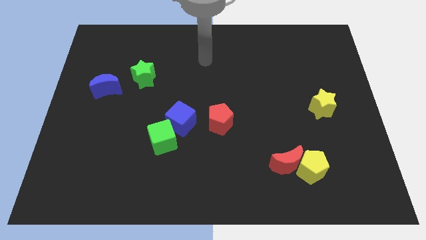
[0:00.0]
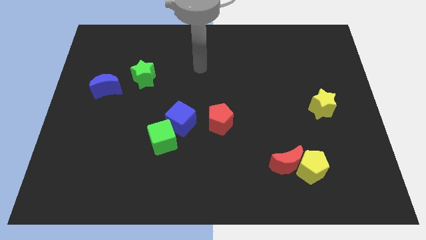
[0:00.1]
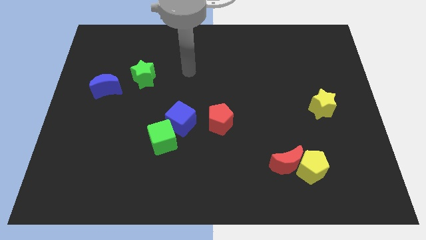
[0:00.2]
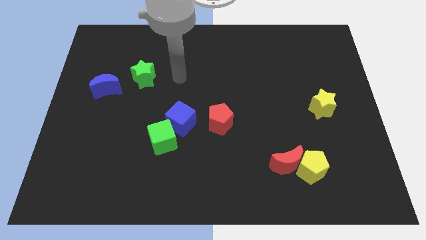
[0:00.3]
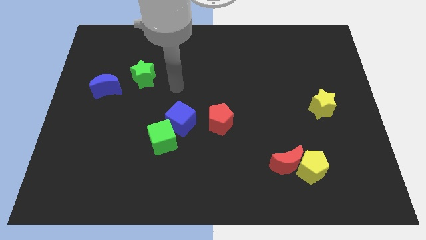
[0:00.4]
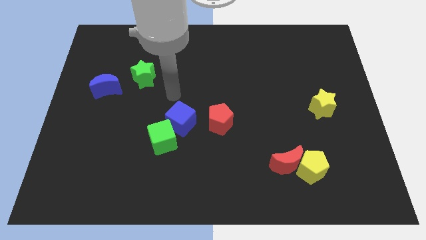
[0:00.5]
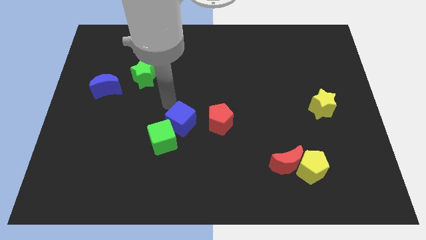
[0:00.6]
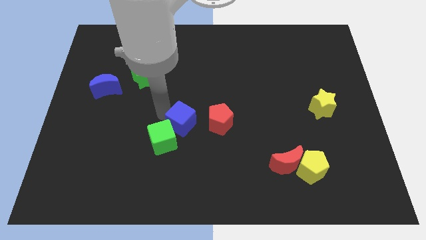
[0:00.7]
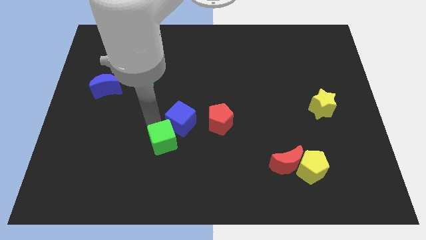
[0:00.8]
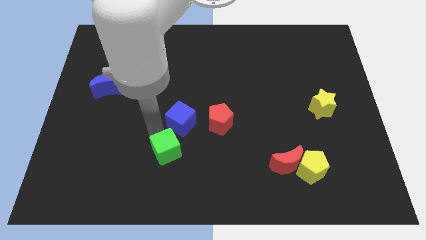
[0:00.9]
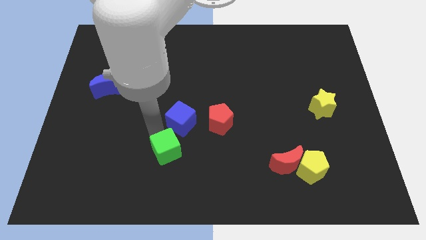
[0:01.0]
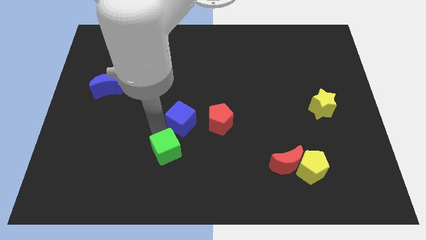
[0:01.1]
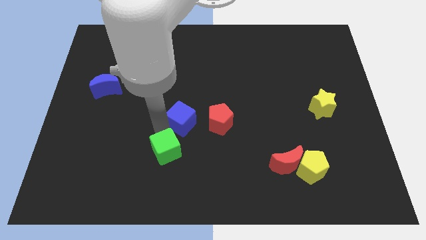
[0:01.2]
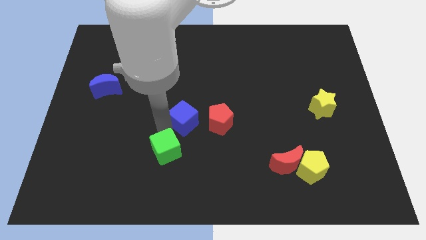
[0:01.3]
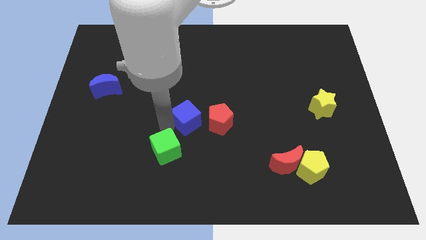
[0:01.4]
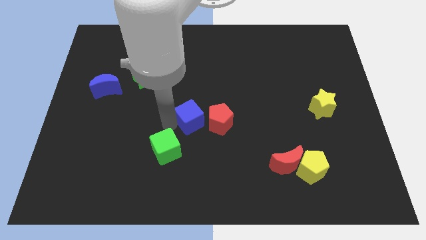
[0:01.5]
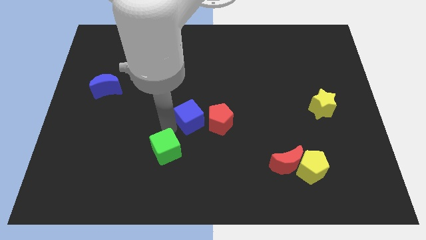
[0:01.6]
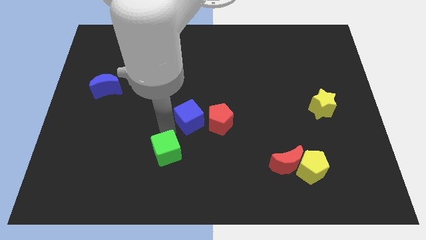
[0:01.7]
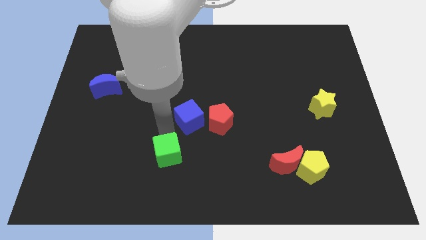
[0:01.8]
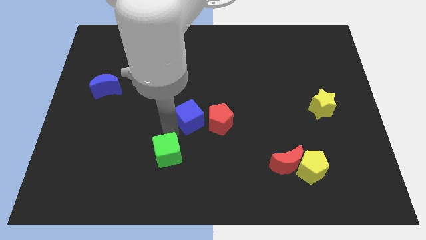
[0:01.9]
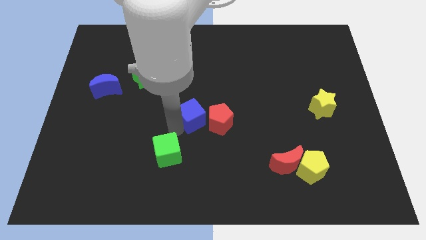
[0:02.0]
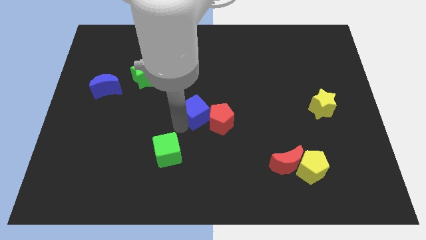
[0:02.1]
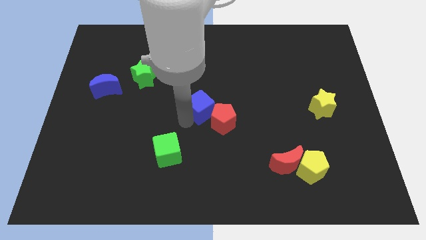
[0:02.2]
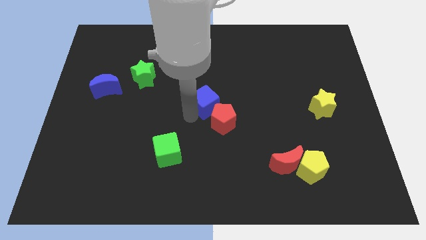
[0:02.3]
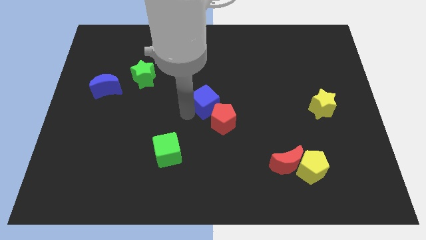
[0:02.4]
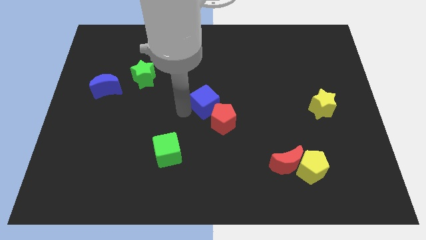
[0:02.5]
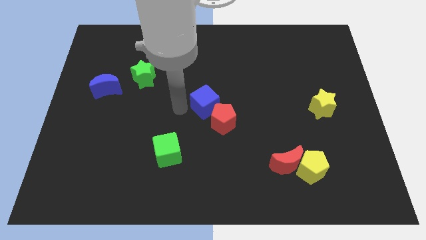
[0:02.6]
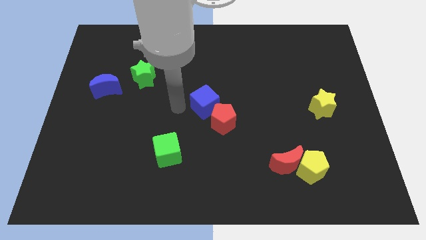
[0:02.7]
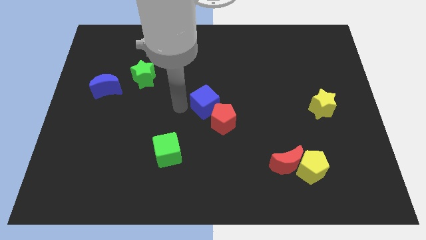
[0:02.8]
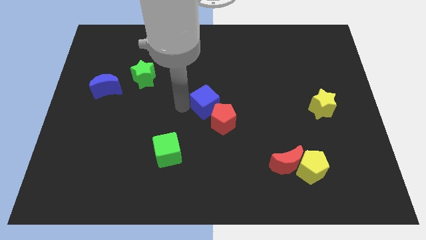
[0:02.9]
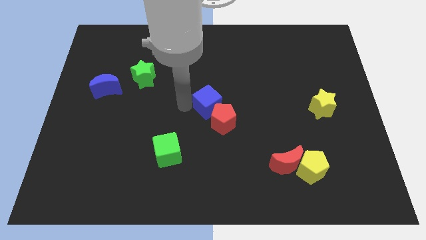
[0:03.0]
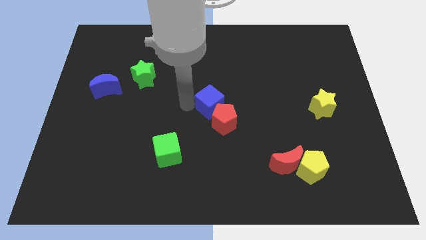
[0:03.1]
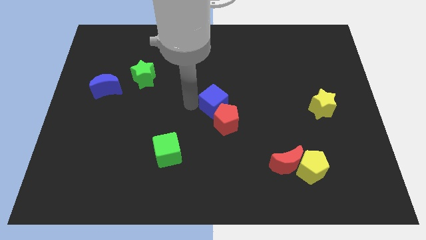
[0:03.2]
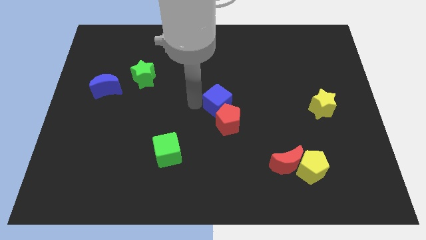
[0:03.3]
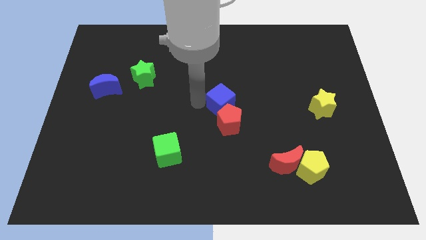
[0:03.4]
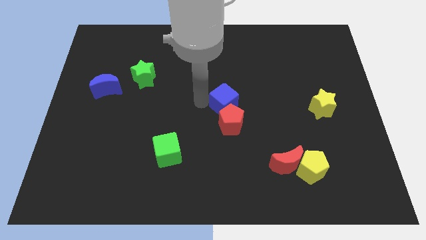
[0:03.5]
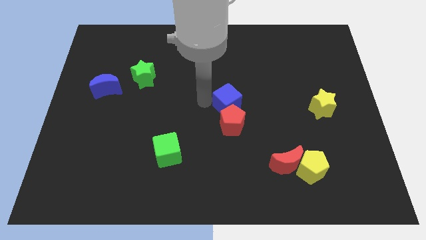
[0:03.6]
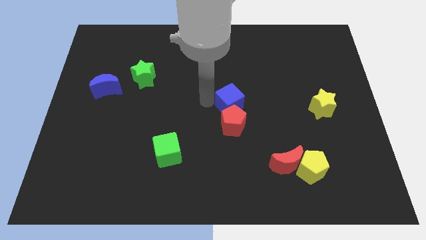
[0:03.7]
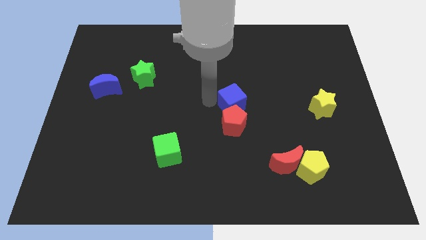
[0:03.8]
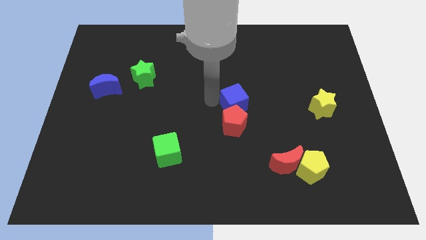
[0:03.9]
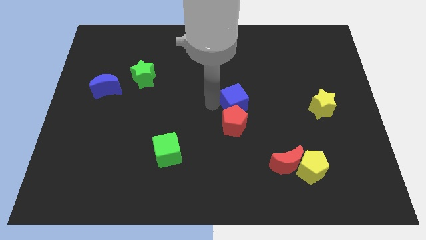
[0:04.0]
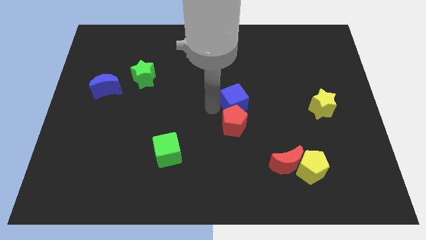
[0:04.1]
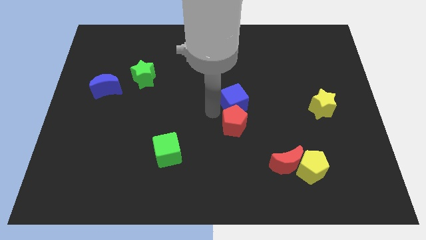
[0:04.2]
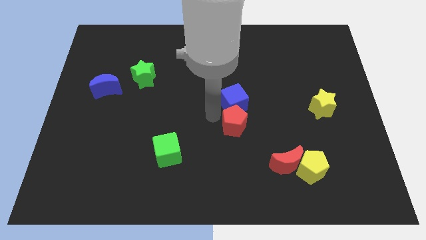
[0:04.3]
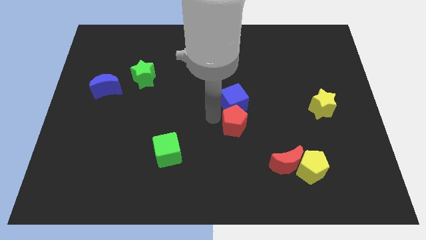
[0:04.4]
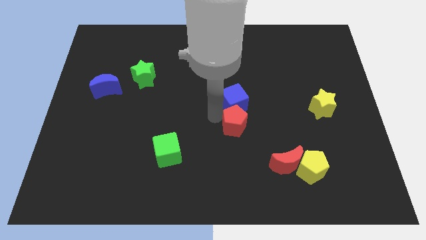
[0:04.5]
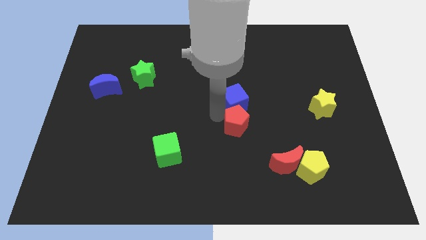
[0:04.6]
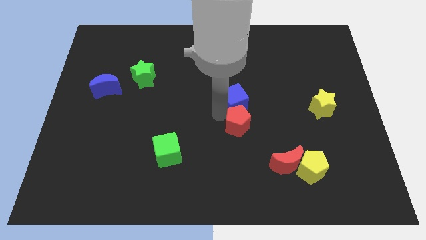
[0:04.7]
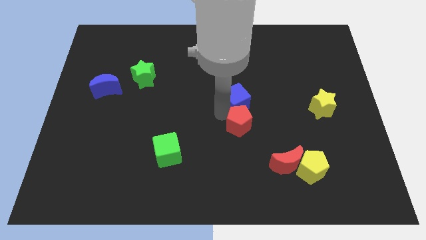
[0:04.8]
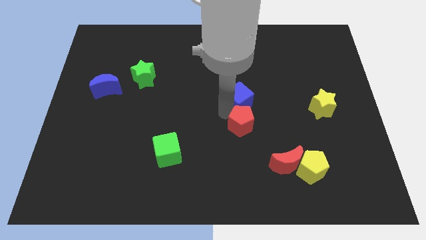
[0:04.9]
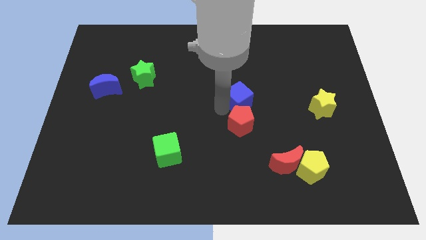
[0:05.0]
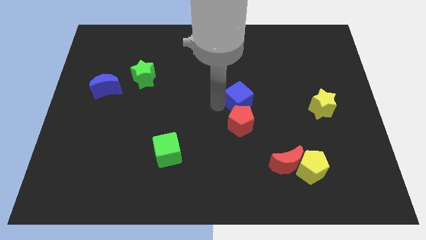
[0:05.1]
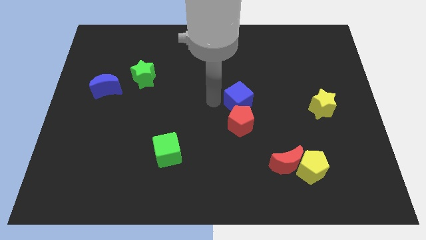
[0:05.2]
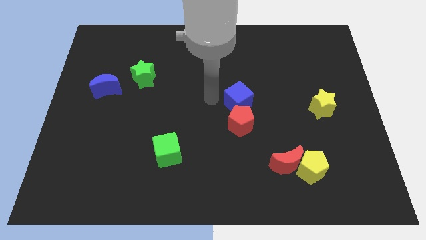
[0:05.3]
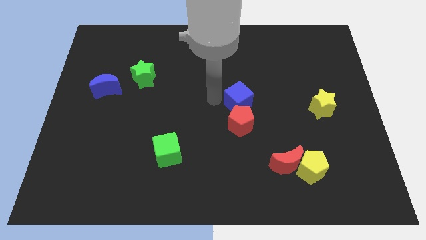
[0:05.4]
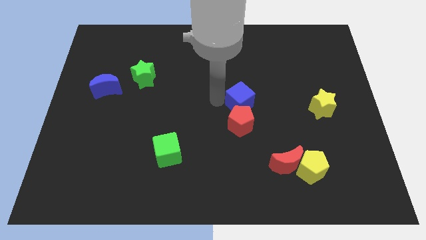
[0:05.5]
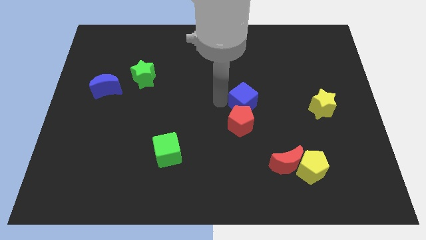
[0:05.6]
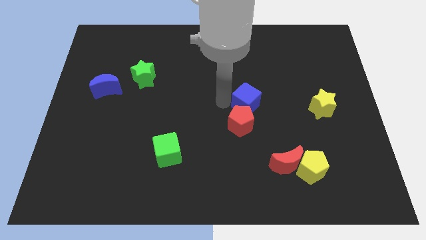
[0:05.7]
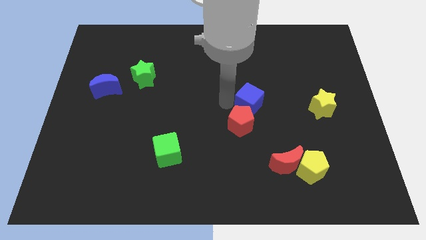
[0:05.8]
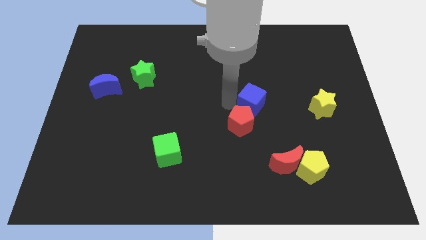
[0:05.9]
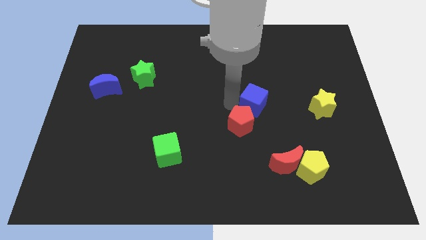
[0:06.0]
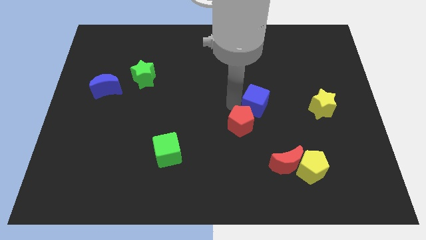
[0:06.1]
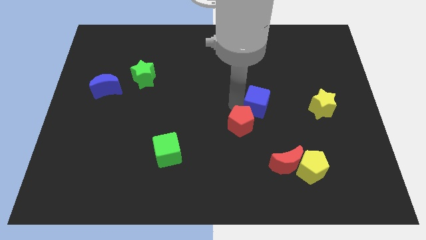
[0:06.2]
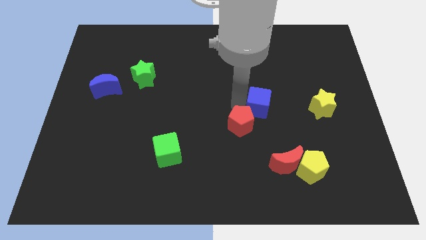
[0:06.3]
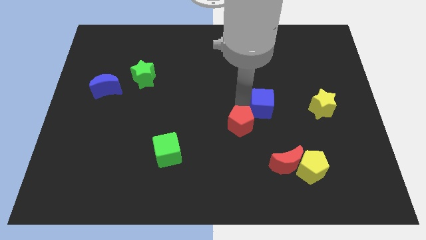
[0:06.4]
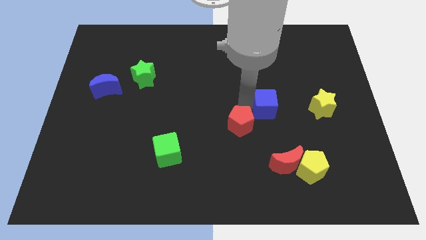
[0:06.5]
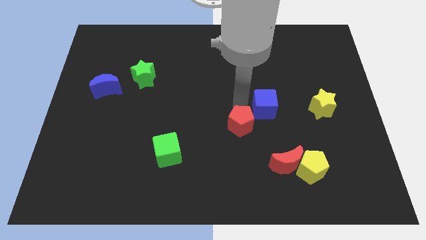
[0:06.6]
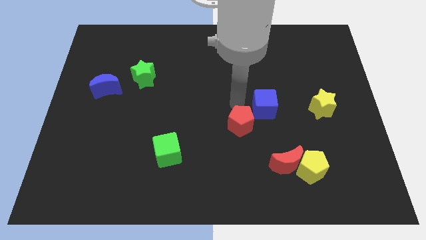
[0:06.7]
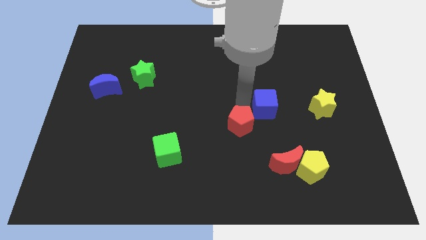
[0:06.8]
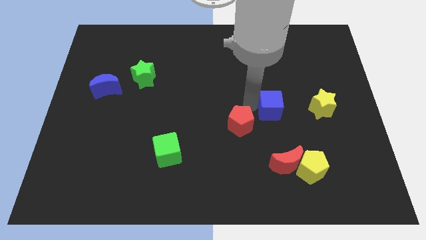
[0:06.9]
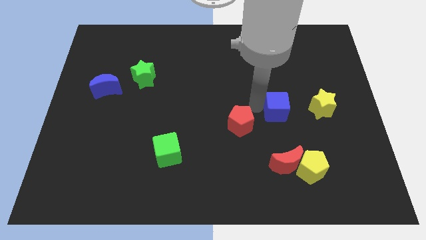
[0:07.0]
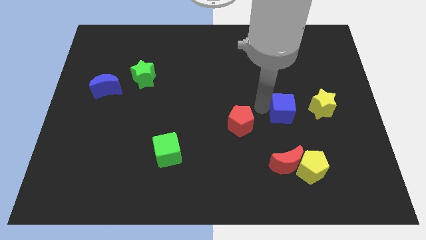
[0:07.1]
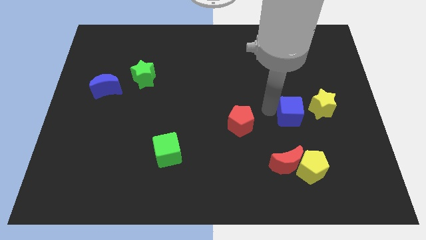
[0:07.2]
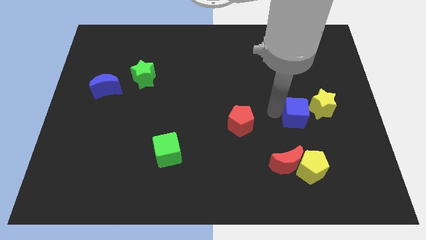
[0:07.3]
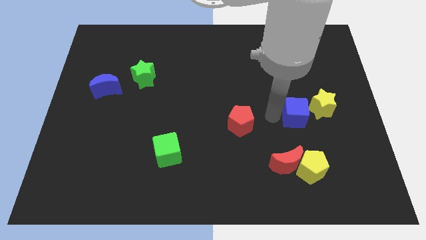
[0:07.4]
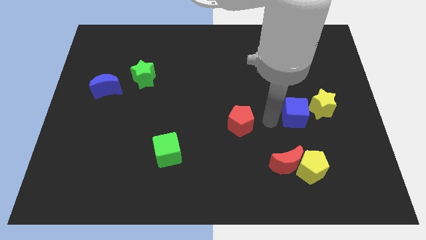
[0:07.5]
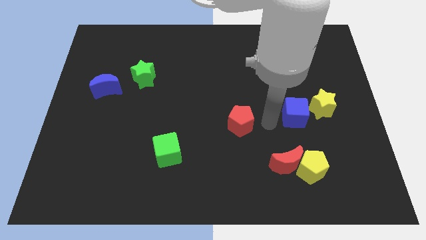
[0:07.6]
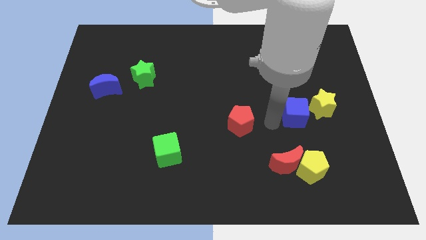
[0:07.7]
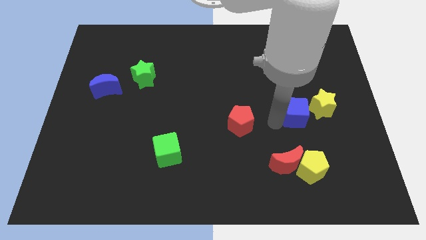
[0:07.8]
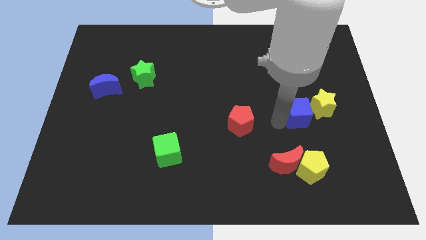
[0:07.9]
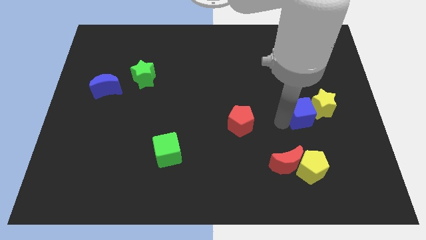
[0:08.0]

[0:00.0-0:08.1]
slide the blue cube next to the yellow star
